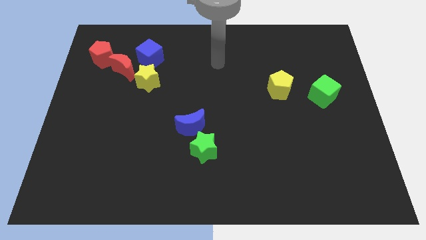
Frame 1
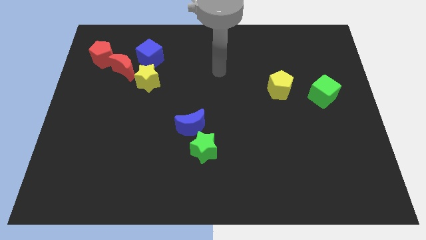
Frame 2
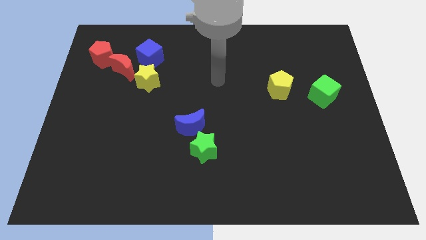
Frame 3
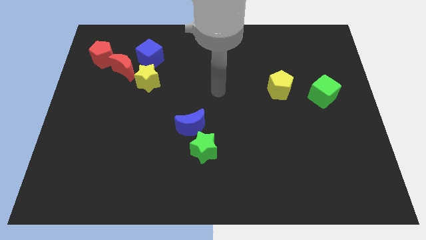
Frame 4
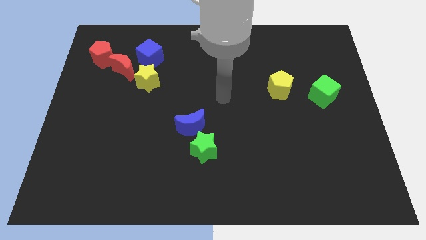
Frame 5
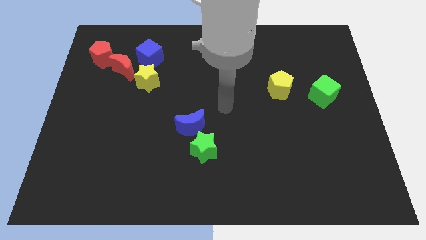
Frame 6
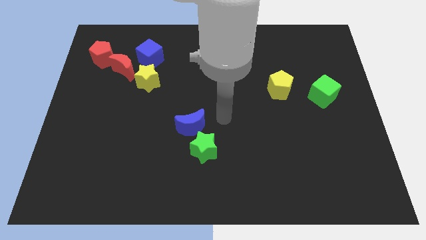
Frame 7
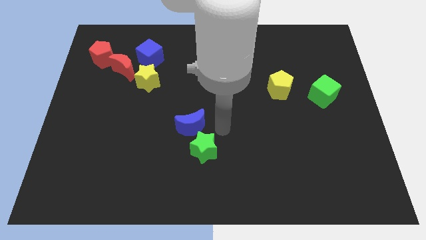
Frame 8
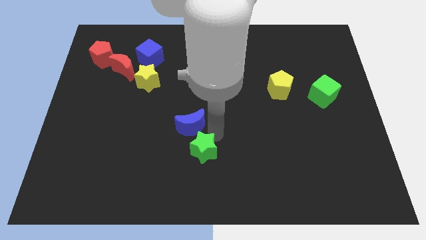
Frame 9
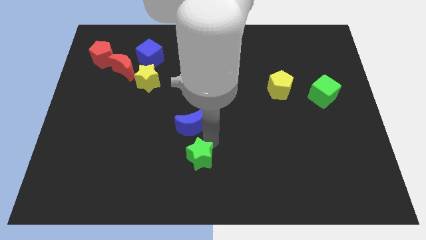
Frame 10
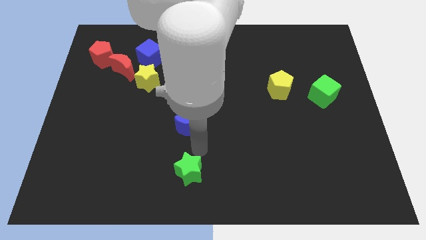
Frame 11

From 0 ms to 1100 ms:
move the blue moon away from the green star

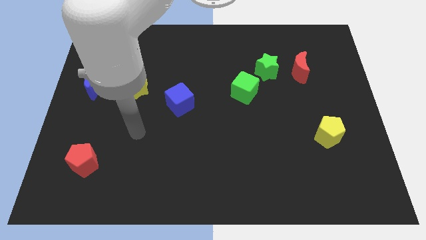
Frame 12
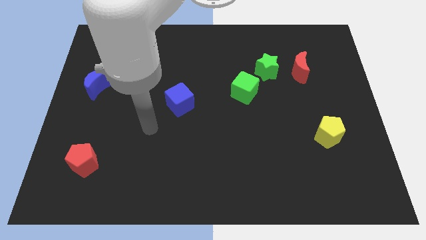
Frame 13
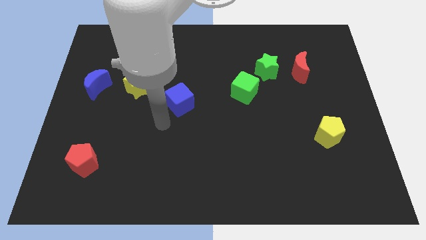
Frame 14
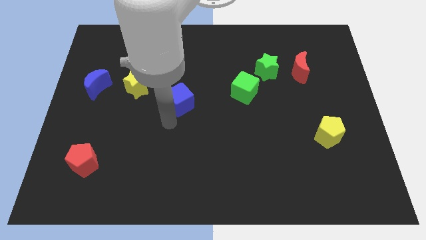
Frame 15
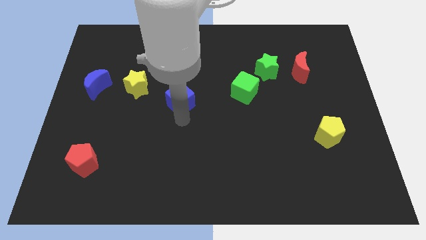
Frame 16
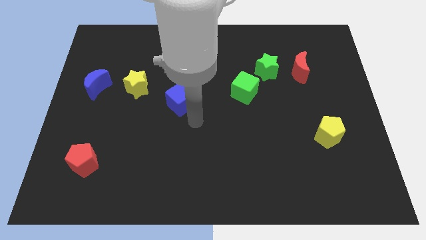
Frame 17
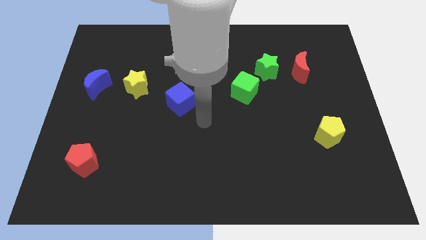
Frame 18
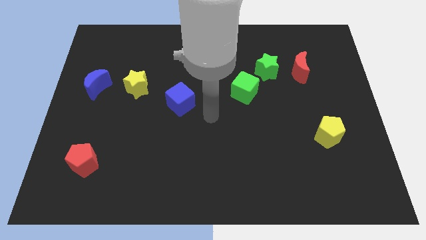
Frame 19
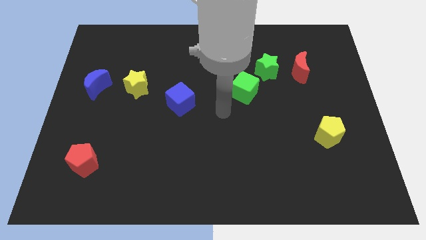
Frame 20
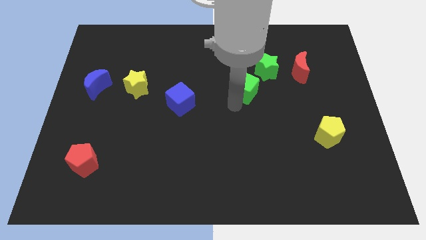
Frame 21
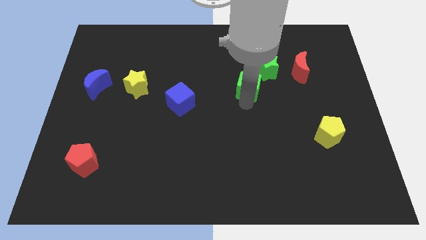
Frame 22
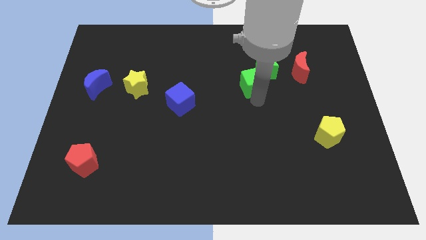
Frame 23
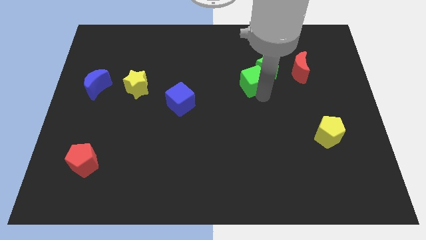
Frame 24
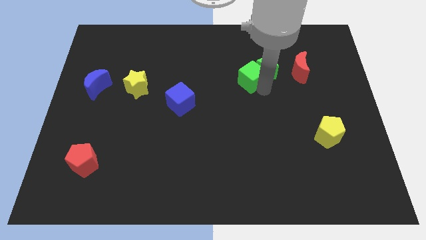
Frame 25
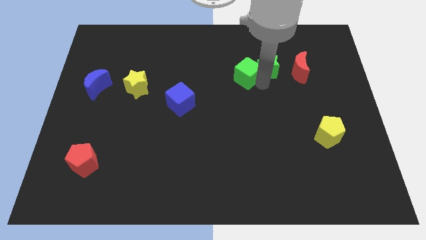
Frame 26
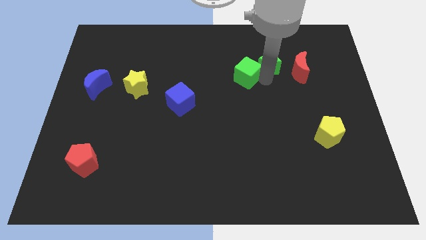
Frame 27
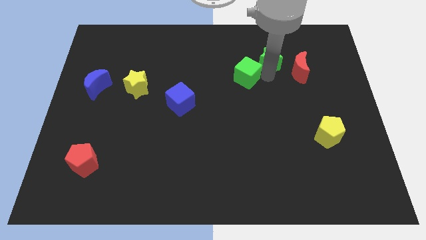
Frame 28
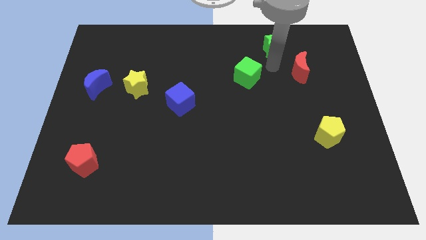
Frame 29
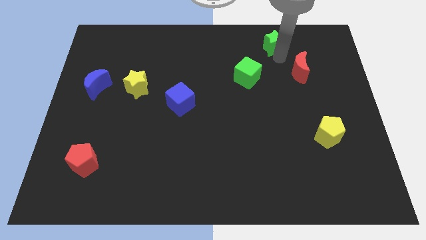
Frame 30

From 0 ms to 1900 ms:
separate the red moon from the green star

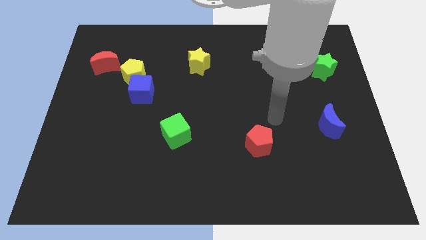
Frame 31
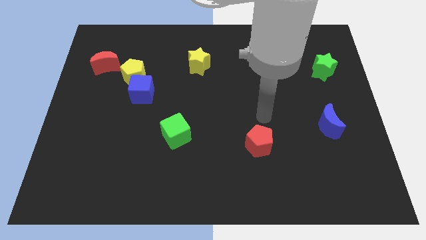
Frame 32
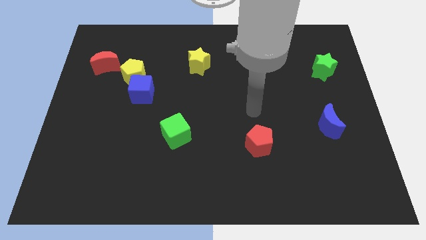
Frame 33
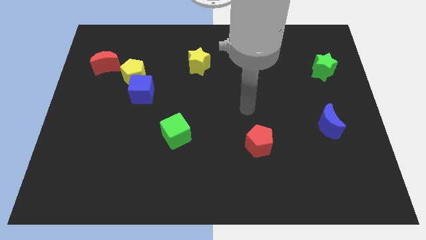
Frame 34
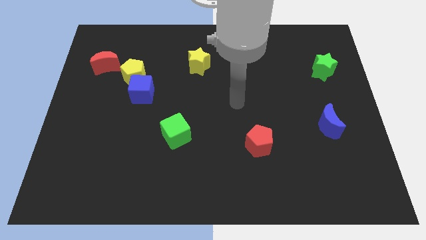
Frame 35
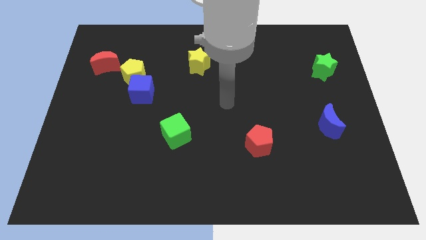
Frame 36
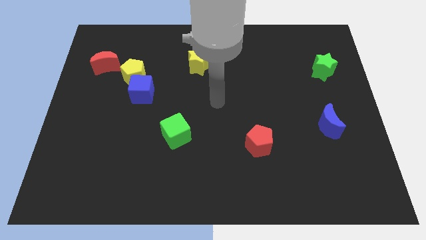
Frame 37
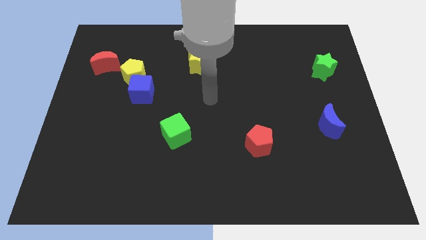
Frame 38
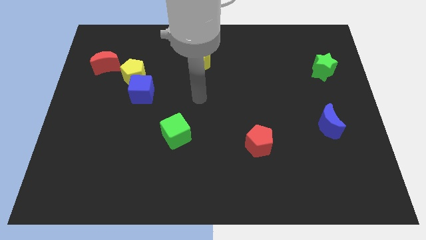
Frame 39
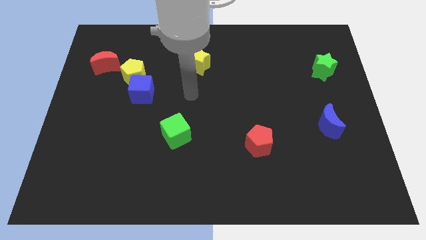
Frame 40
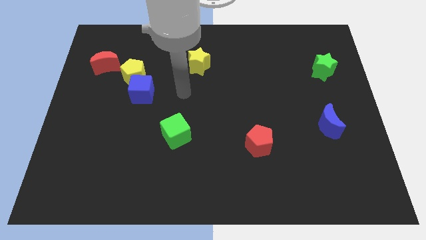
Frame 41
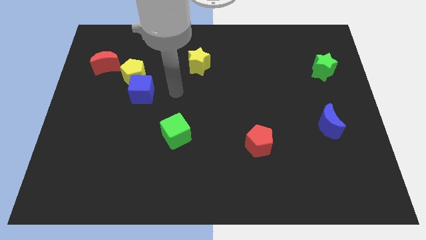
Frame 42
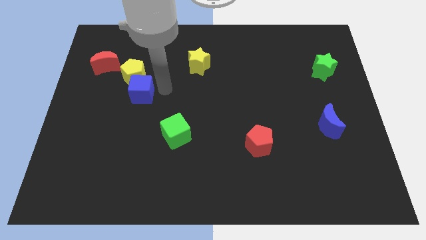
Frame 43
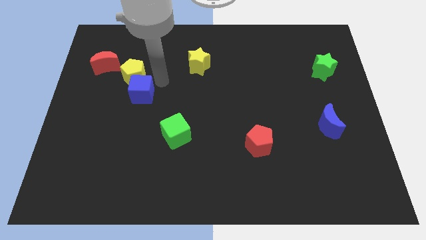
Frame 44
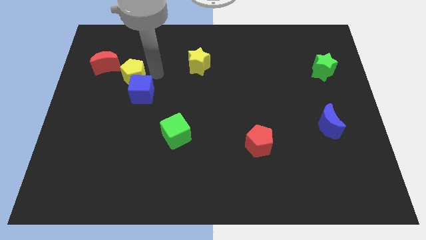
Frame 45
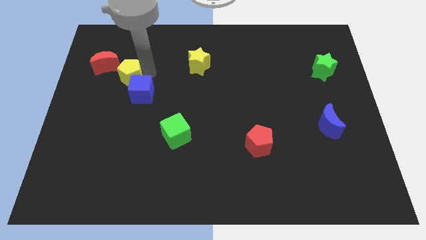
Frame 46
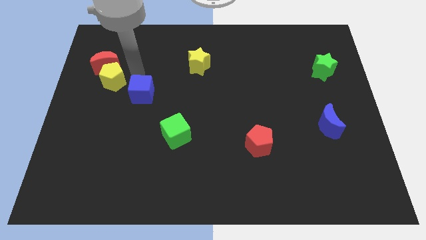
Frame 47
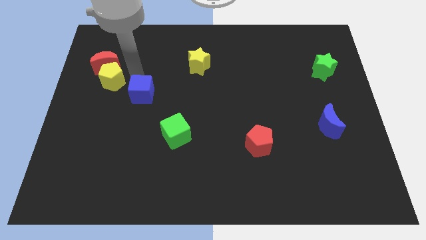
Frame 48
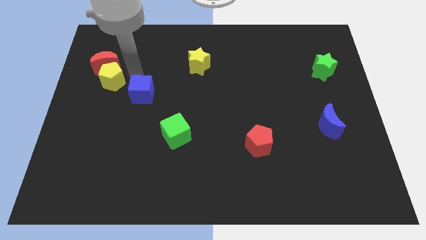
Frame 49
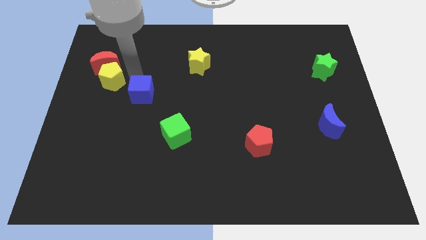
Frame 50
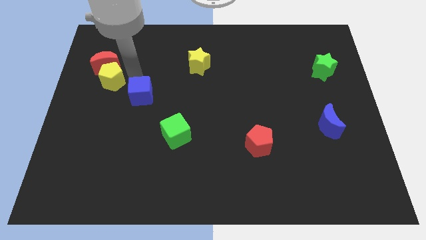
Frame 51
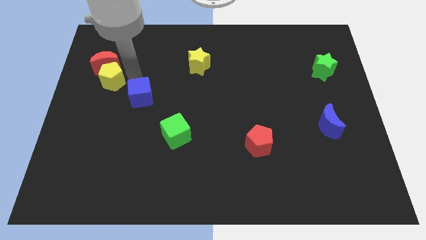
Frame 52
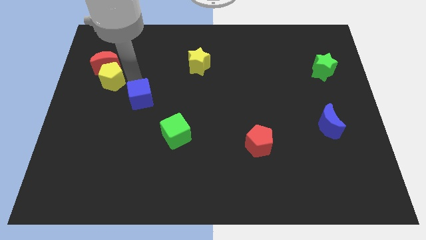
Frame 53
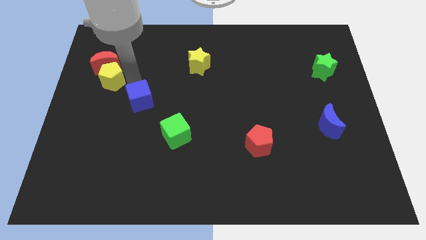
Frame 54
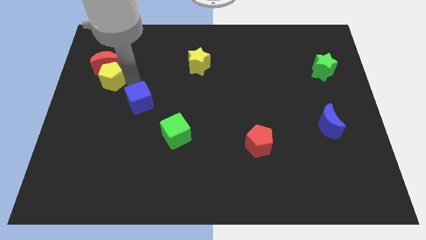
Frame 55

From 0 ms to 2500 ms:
separate the blue cube from the yellow pentagon

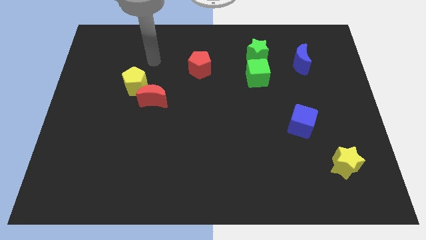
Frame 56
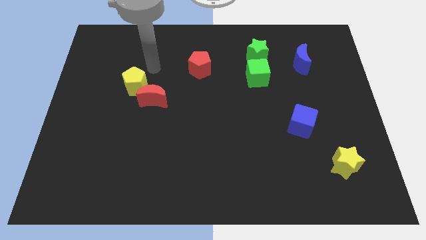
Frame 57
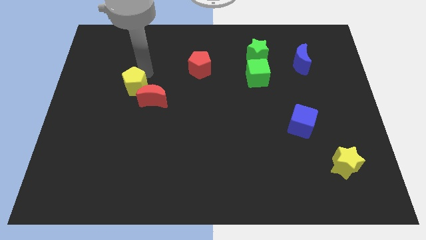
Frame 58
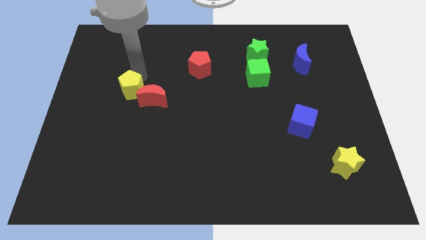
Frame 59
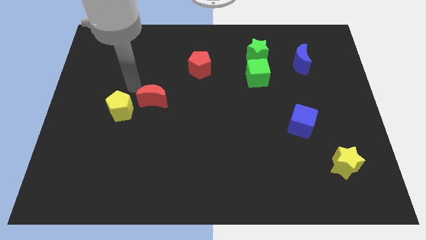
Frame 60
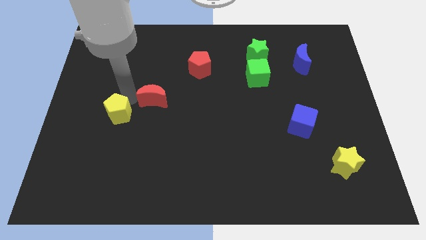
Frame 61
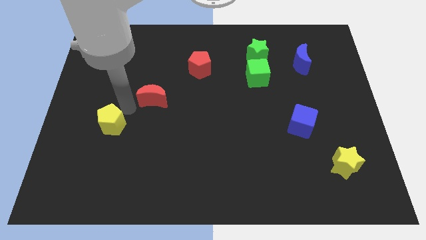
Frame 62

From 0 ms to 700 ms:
pull the red moon apart from the yellow pentagon

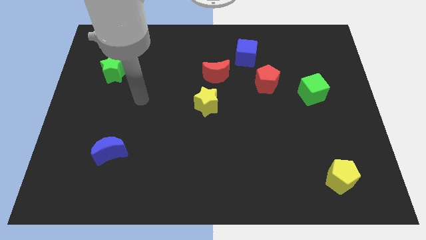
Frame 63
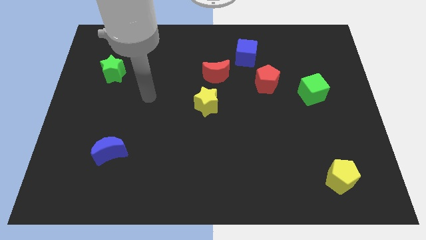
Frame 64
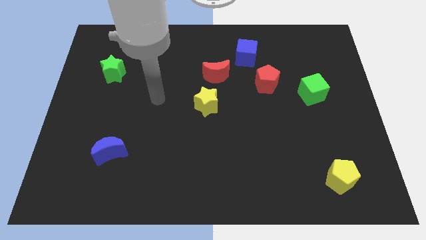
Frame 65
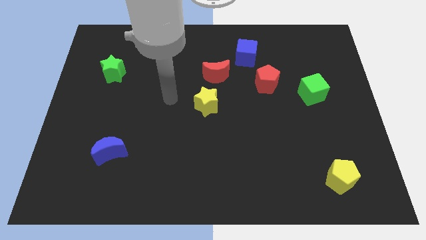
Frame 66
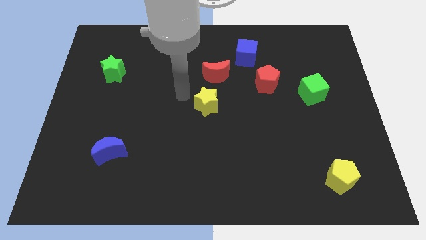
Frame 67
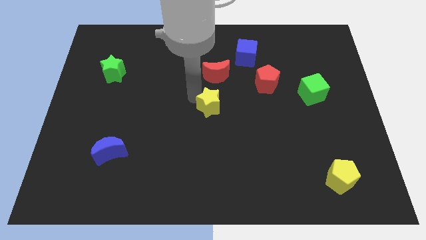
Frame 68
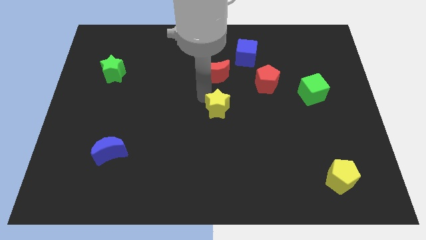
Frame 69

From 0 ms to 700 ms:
separate the red moon from the yellow star

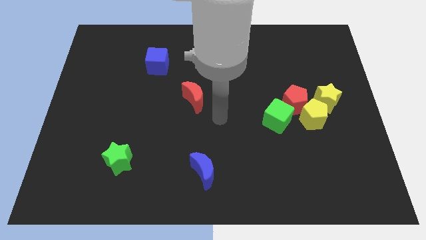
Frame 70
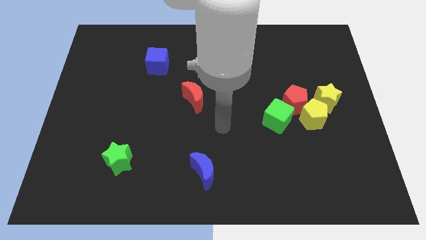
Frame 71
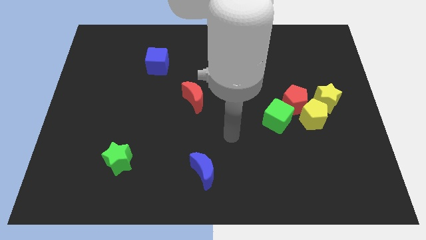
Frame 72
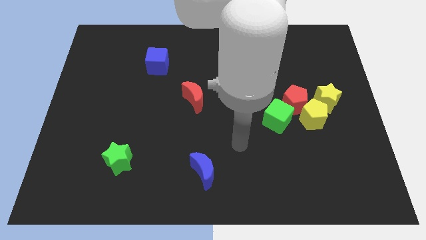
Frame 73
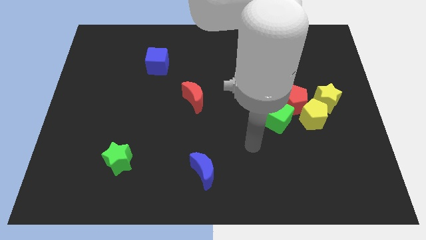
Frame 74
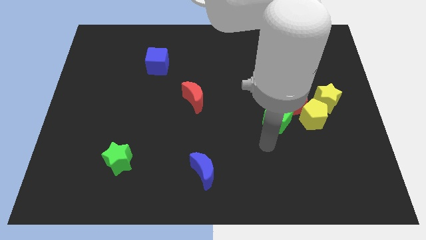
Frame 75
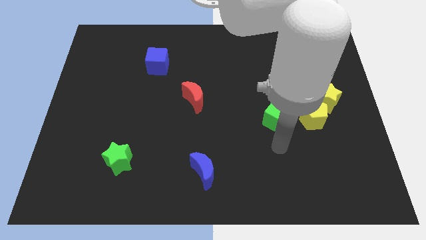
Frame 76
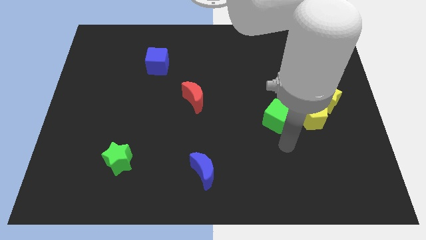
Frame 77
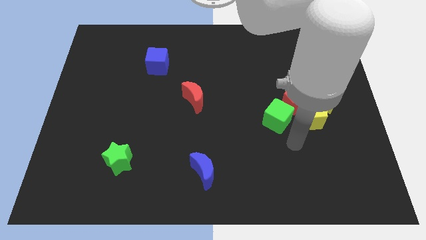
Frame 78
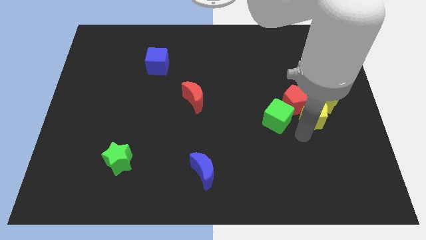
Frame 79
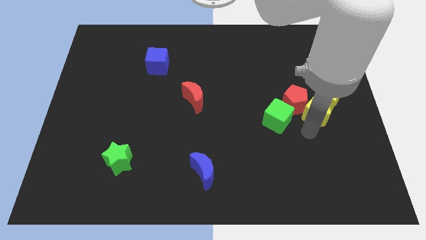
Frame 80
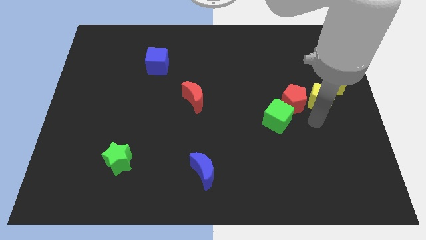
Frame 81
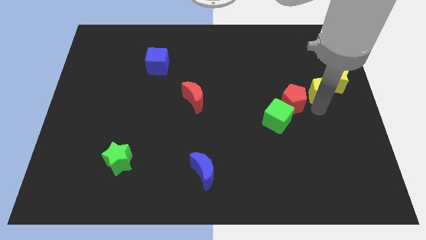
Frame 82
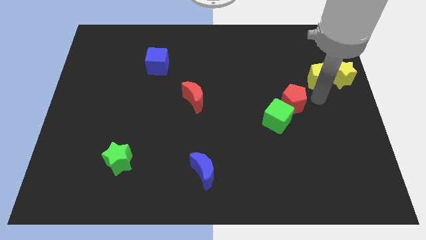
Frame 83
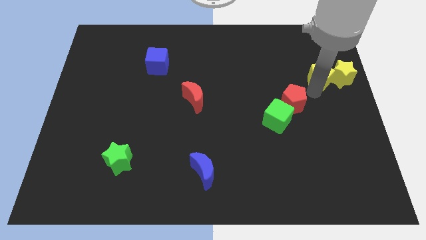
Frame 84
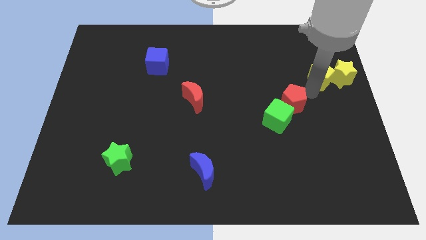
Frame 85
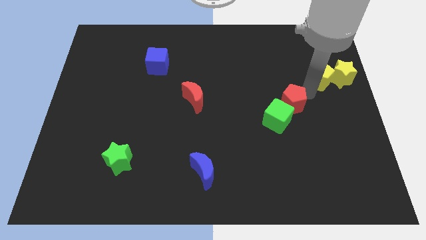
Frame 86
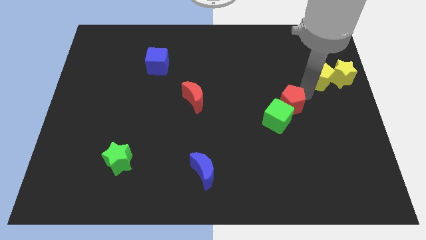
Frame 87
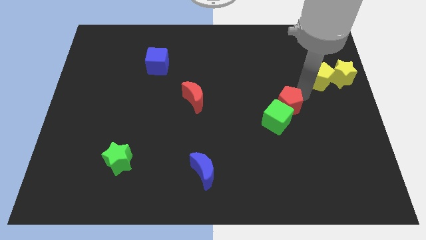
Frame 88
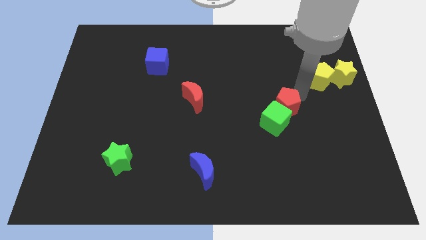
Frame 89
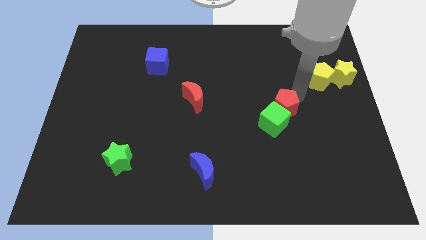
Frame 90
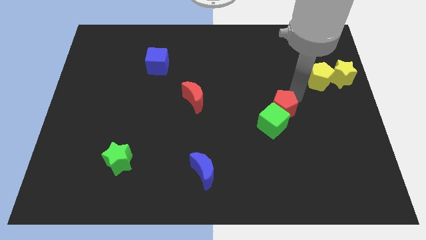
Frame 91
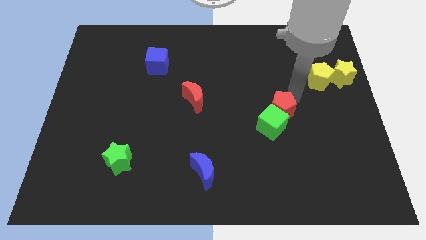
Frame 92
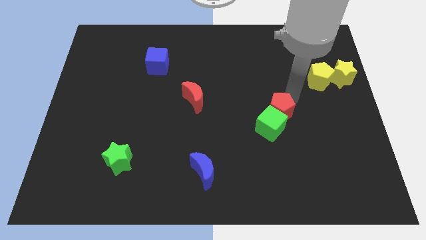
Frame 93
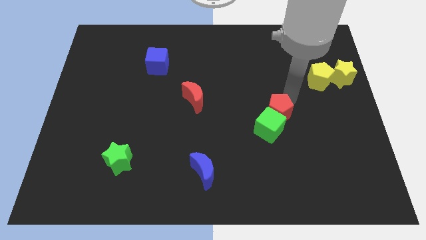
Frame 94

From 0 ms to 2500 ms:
separate the red pentagon from the clump

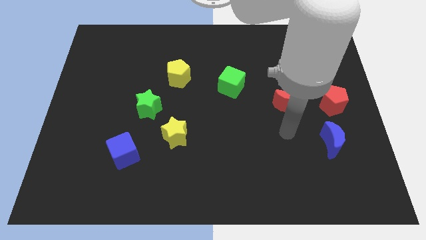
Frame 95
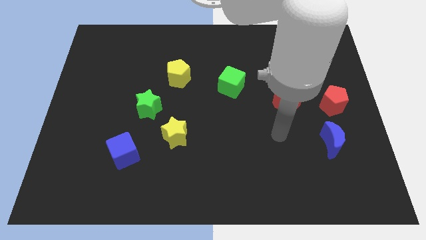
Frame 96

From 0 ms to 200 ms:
move the green star away from the yellow star
